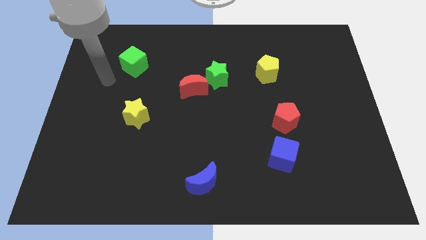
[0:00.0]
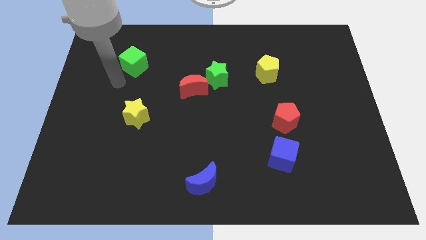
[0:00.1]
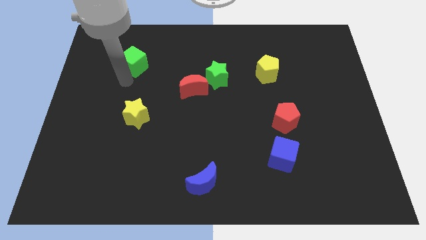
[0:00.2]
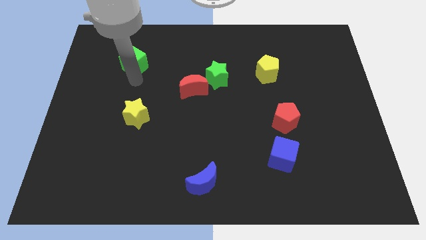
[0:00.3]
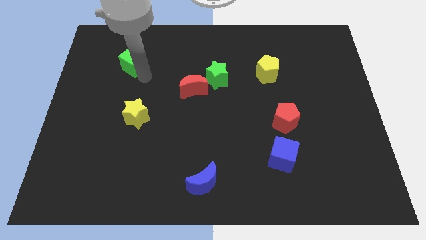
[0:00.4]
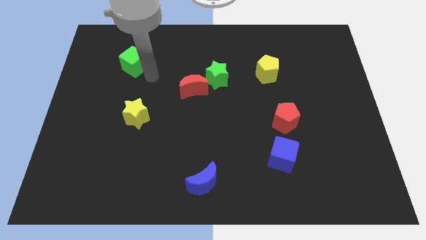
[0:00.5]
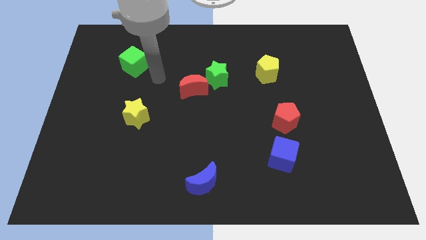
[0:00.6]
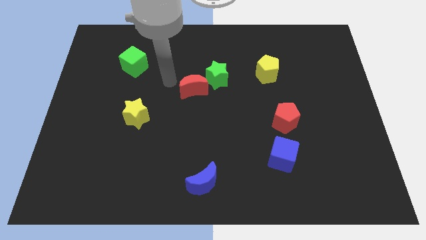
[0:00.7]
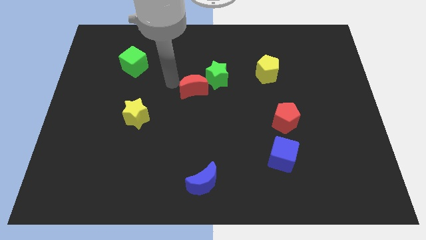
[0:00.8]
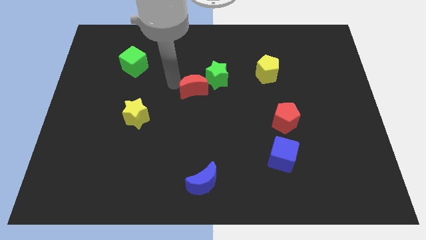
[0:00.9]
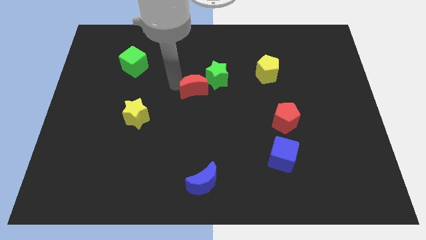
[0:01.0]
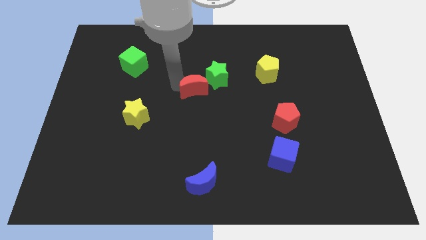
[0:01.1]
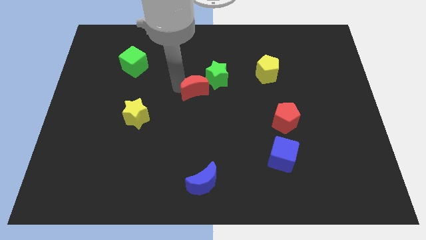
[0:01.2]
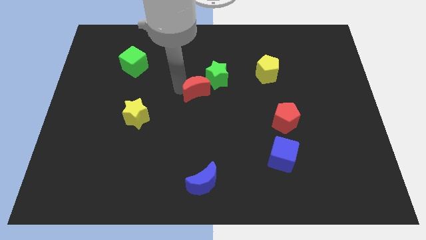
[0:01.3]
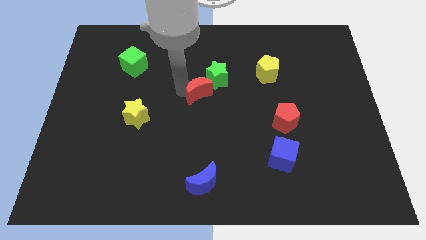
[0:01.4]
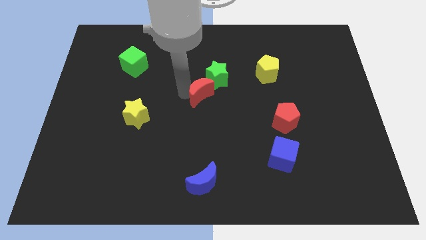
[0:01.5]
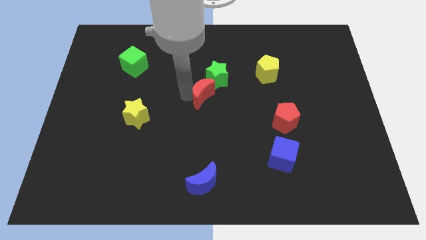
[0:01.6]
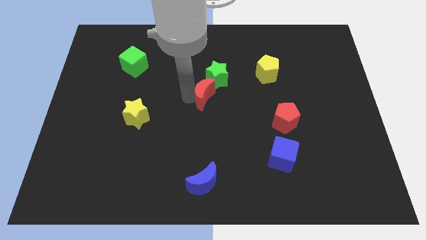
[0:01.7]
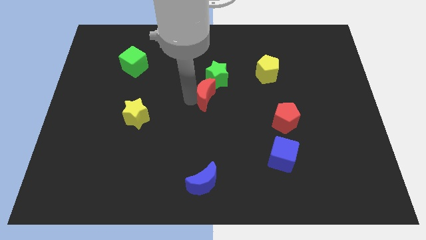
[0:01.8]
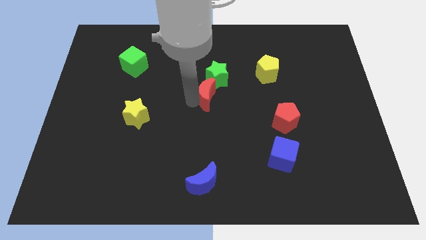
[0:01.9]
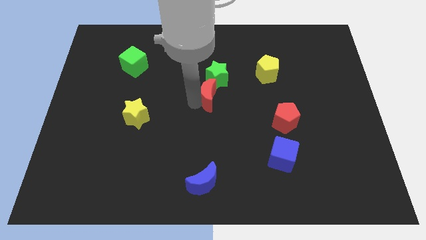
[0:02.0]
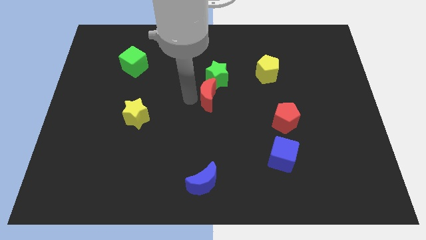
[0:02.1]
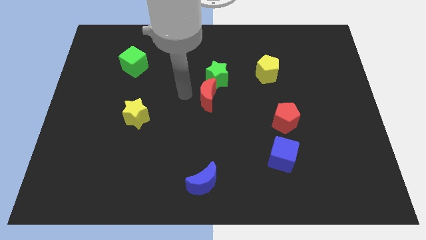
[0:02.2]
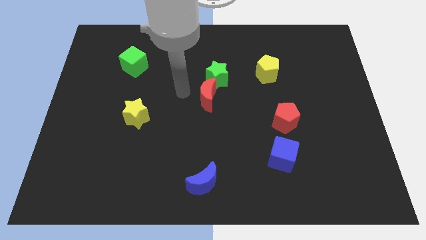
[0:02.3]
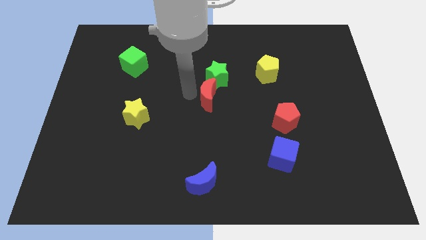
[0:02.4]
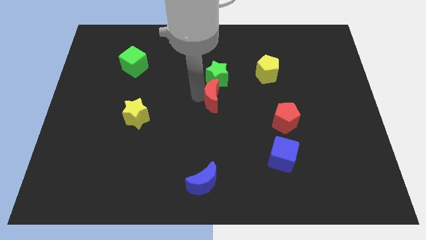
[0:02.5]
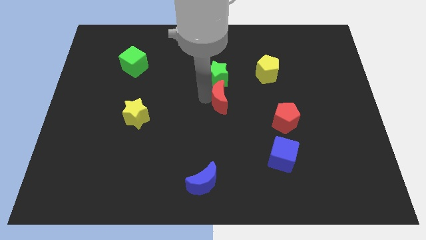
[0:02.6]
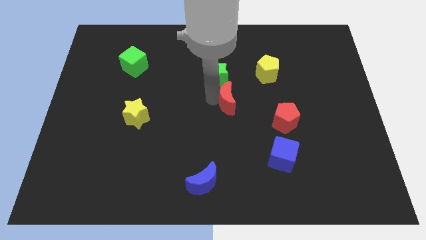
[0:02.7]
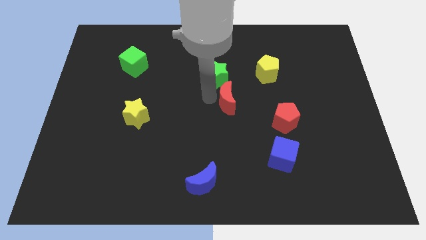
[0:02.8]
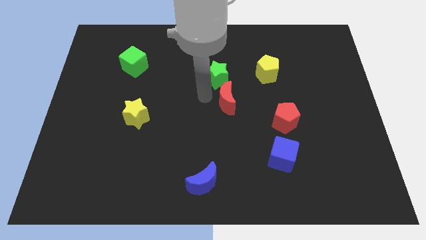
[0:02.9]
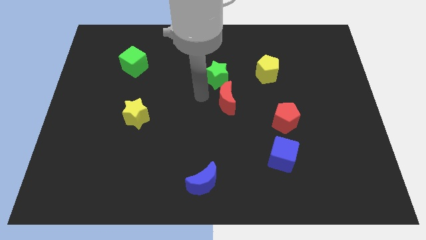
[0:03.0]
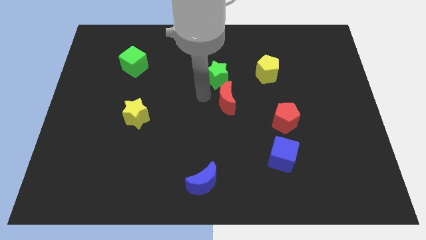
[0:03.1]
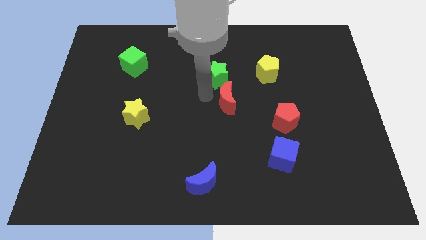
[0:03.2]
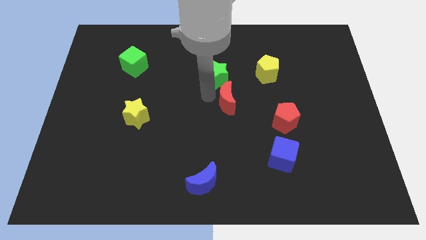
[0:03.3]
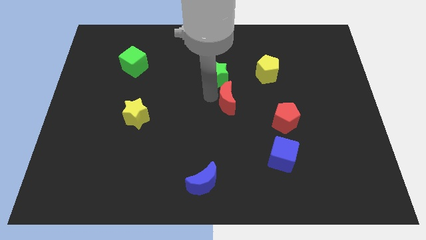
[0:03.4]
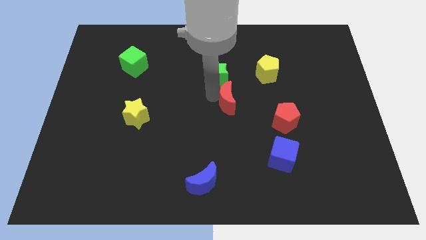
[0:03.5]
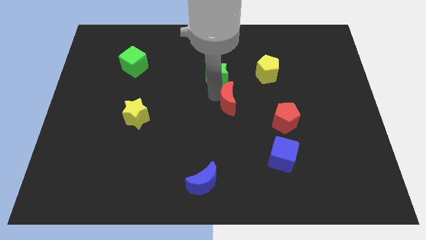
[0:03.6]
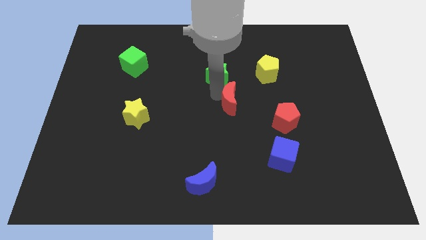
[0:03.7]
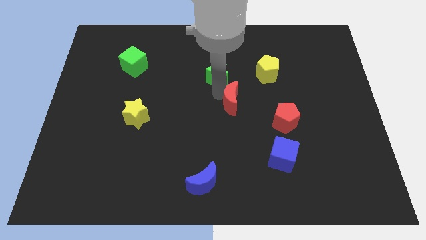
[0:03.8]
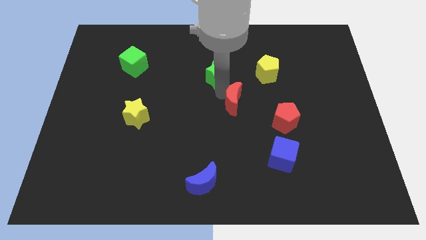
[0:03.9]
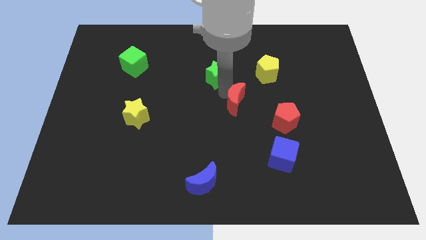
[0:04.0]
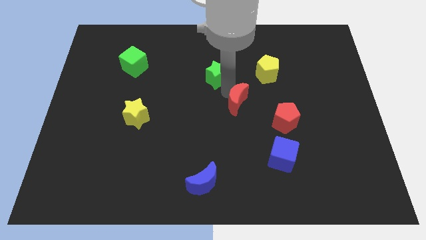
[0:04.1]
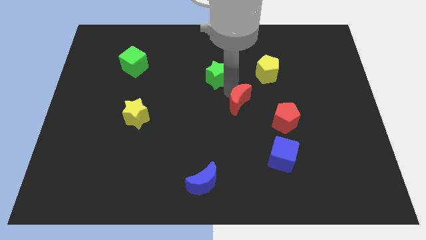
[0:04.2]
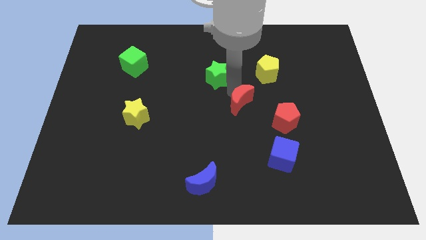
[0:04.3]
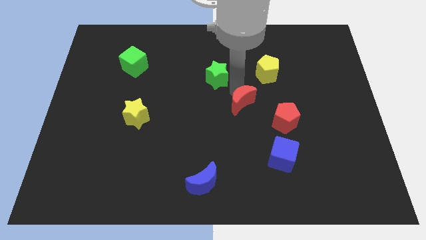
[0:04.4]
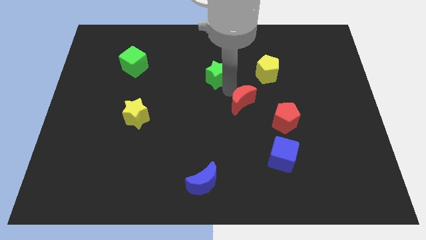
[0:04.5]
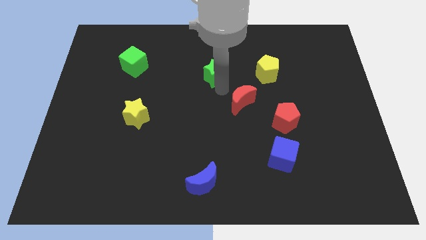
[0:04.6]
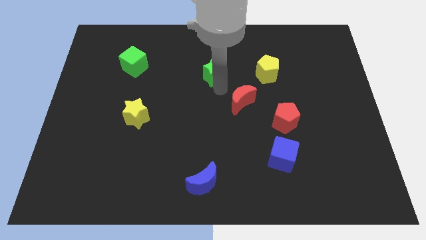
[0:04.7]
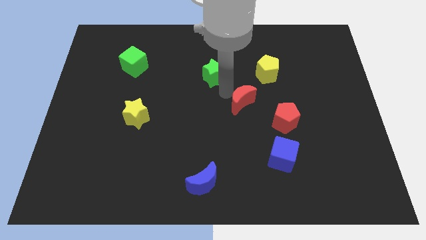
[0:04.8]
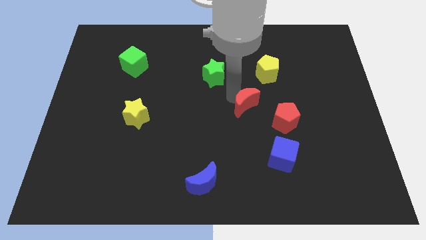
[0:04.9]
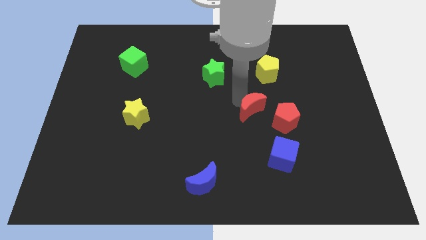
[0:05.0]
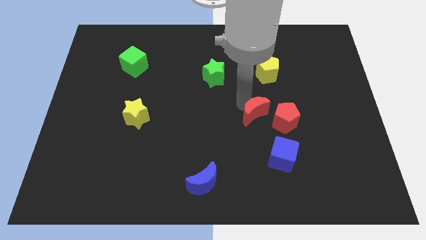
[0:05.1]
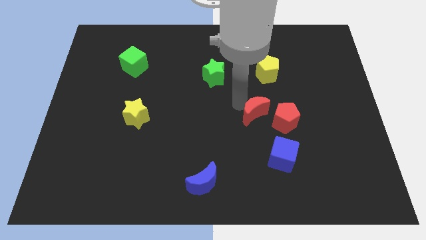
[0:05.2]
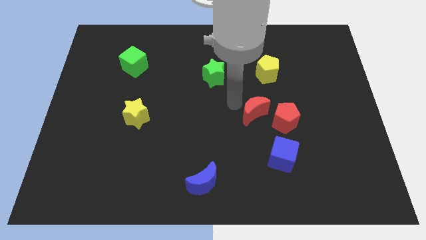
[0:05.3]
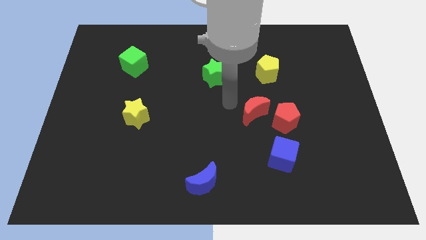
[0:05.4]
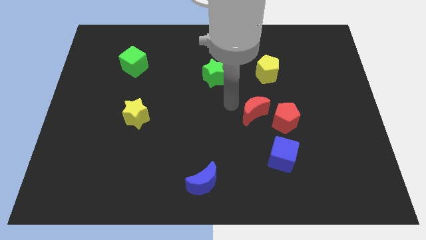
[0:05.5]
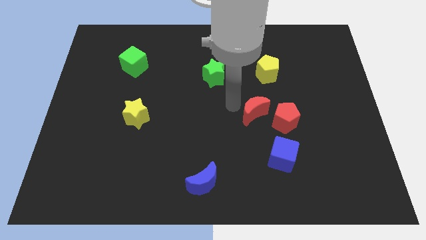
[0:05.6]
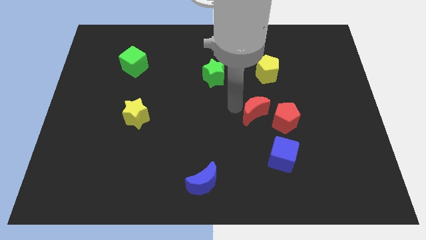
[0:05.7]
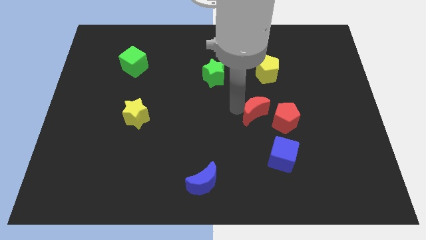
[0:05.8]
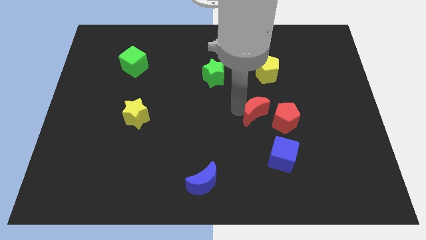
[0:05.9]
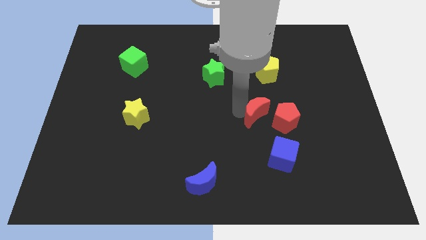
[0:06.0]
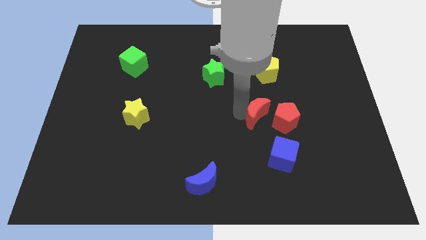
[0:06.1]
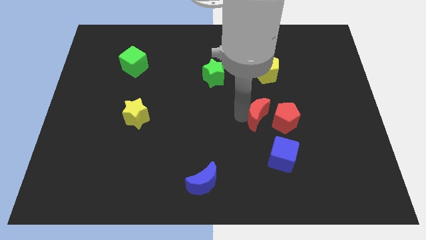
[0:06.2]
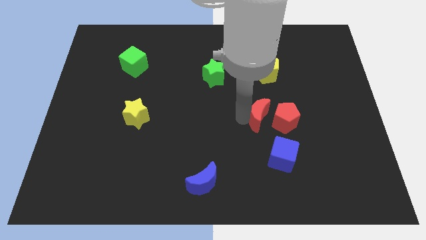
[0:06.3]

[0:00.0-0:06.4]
move the red moon to the red pentagon

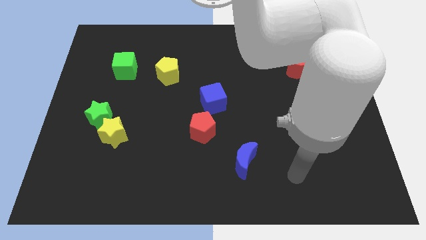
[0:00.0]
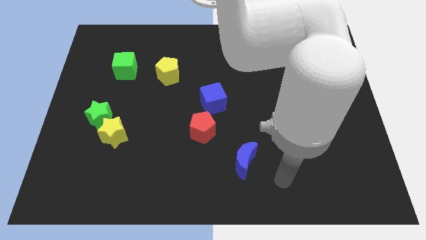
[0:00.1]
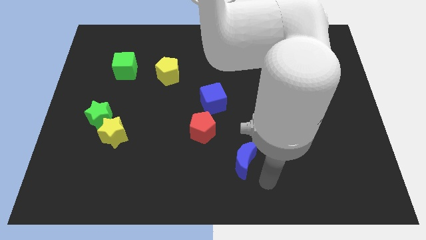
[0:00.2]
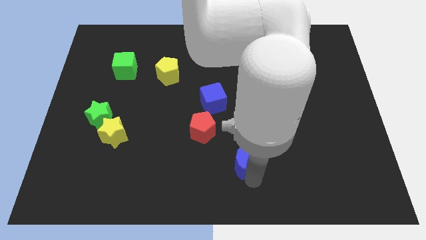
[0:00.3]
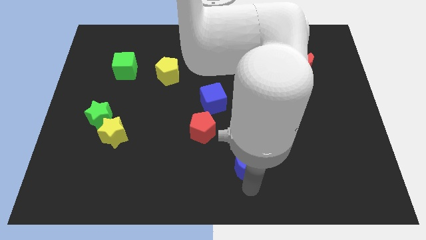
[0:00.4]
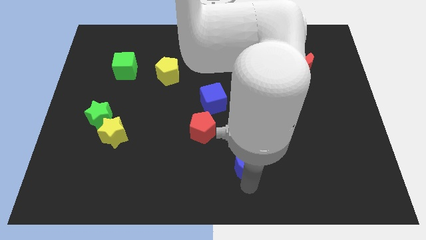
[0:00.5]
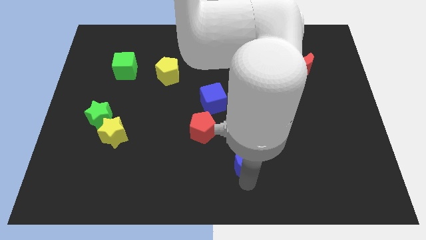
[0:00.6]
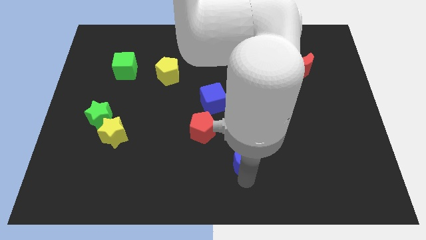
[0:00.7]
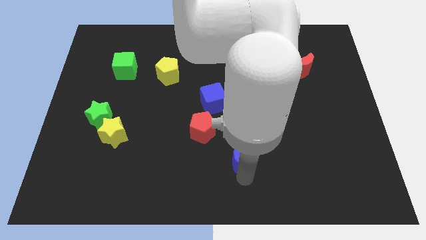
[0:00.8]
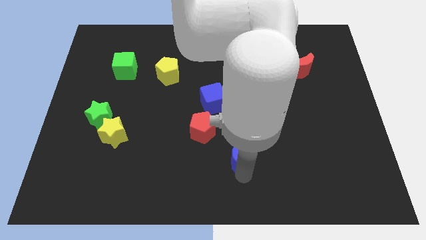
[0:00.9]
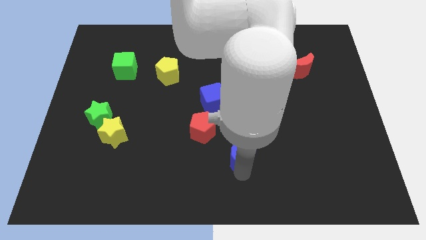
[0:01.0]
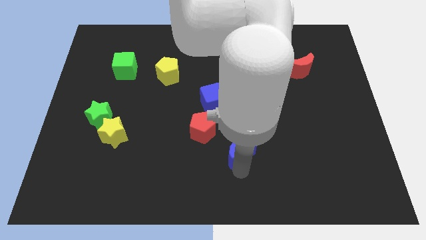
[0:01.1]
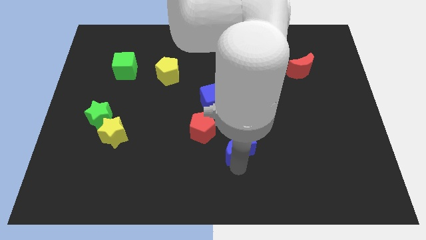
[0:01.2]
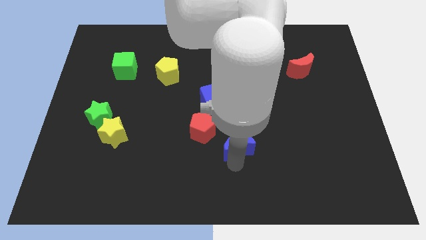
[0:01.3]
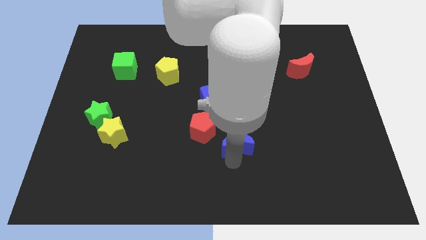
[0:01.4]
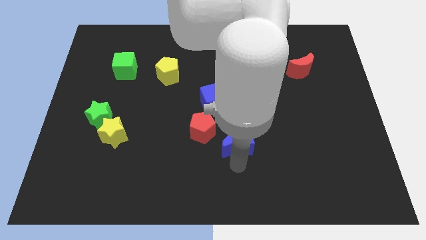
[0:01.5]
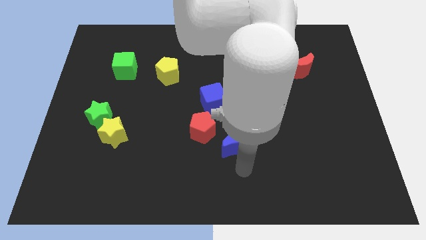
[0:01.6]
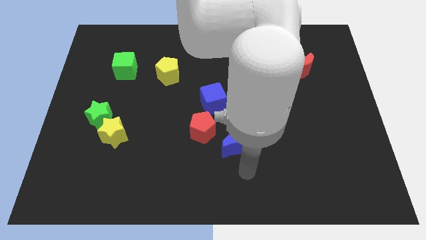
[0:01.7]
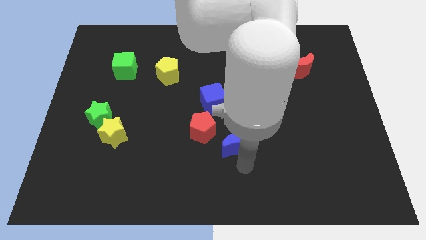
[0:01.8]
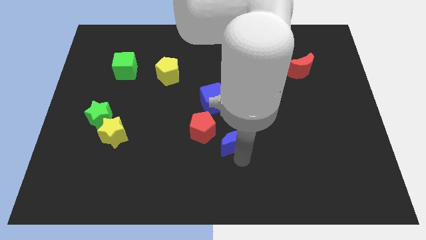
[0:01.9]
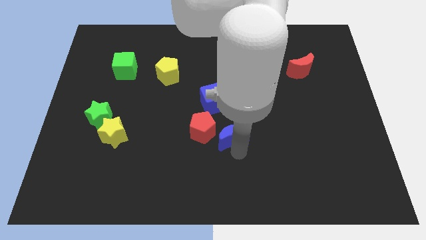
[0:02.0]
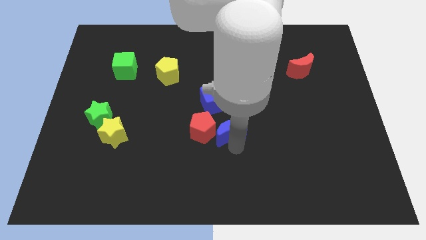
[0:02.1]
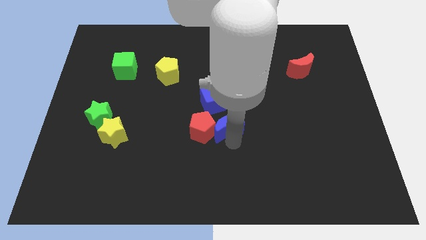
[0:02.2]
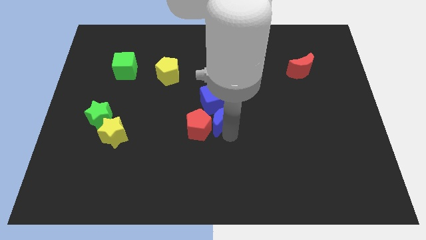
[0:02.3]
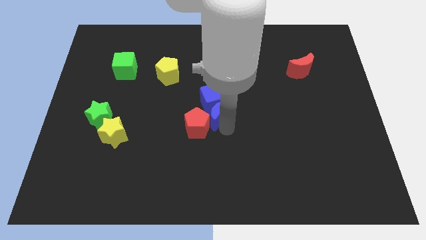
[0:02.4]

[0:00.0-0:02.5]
move the blue moon next to the blue cube
